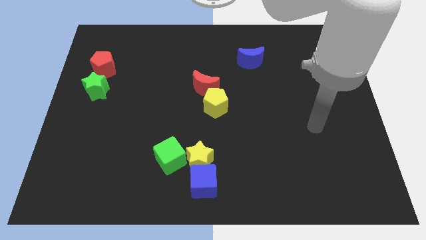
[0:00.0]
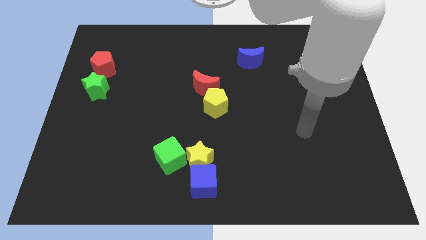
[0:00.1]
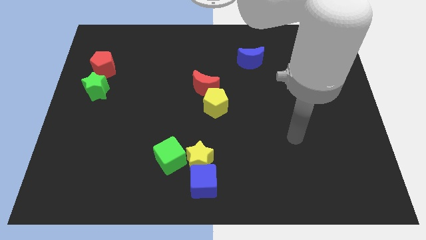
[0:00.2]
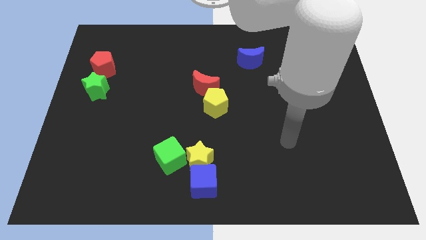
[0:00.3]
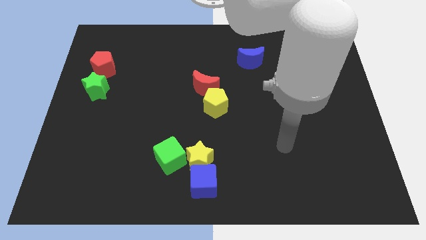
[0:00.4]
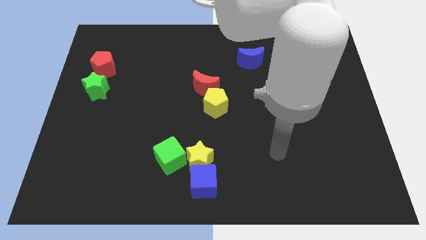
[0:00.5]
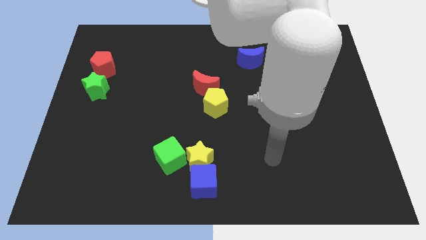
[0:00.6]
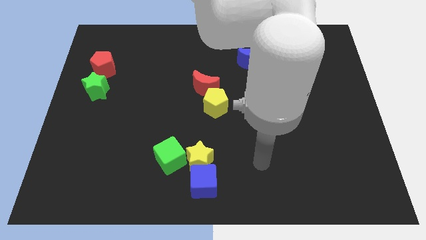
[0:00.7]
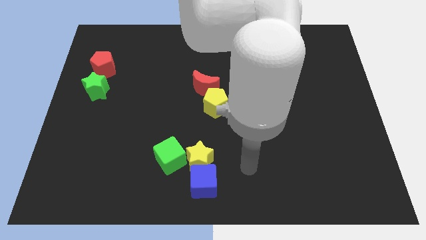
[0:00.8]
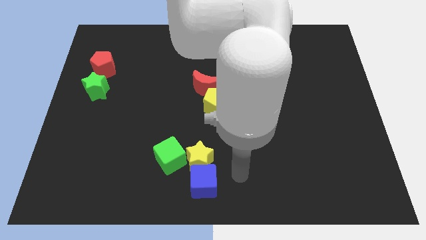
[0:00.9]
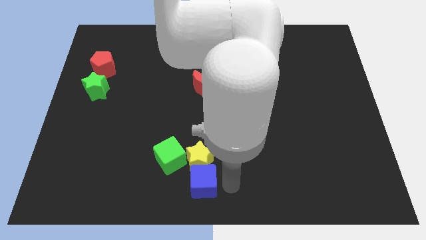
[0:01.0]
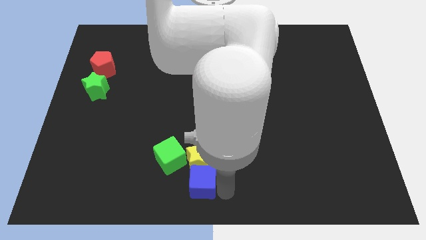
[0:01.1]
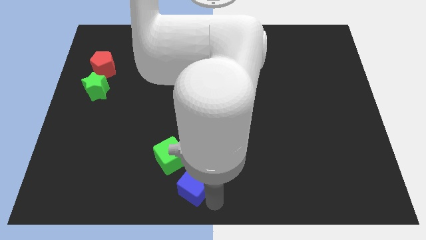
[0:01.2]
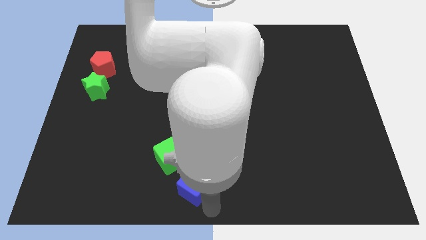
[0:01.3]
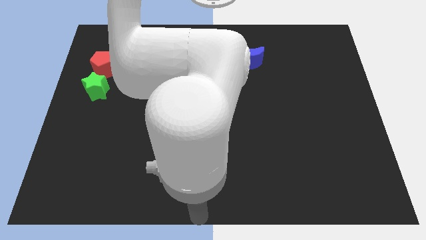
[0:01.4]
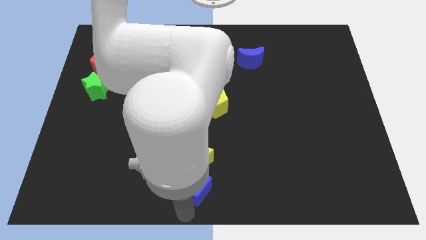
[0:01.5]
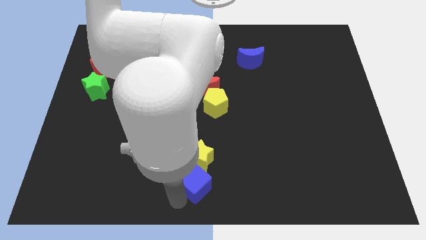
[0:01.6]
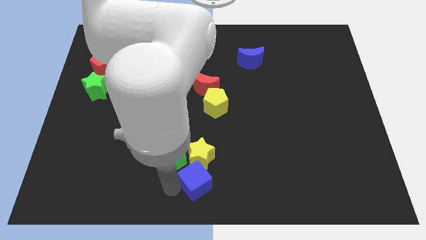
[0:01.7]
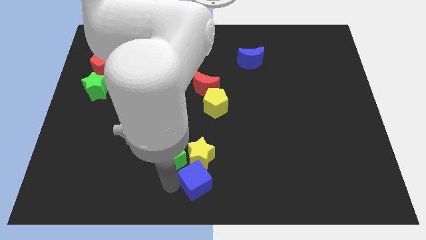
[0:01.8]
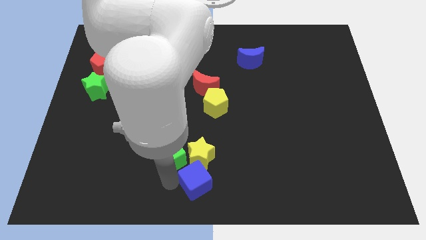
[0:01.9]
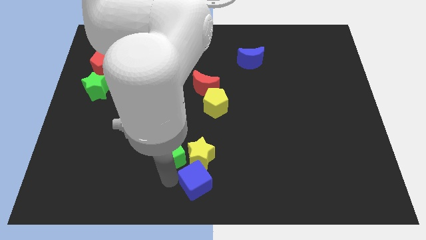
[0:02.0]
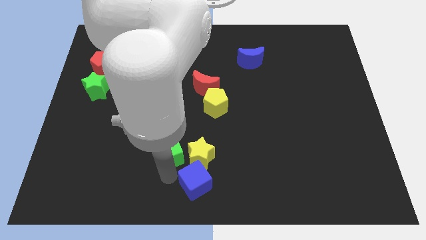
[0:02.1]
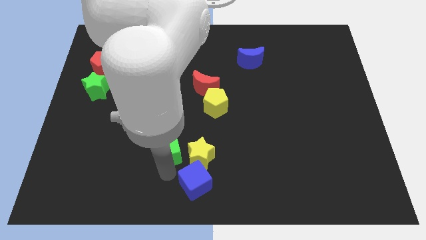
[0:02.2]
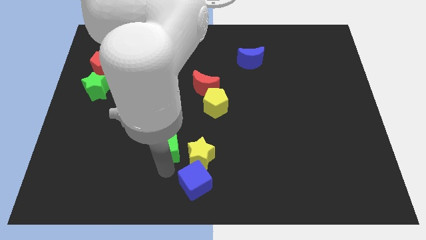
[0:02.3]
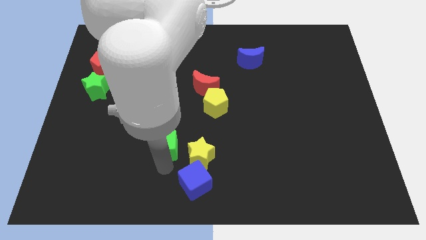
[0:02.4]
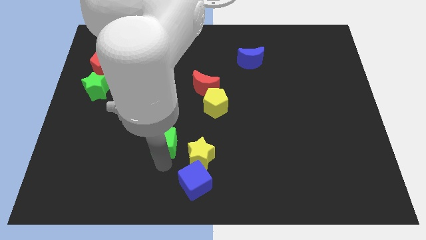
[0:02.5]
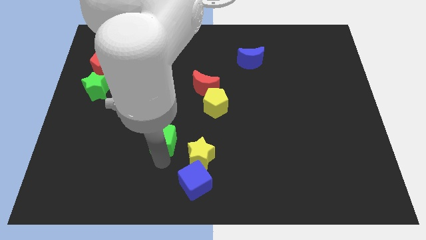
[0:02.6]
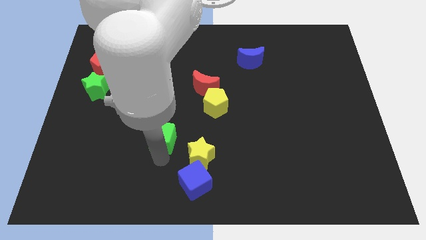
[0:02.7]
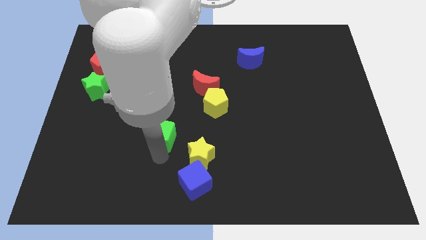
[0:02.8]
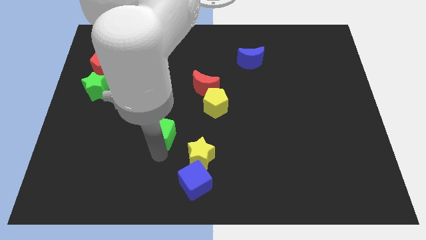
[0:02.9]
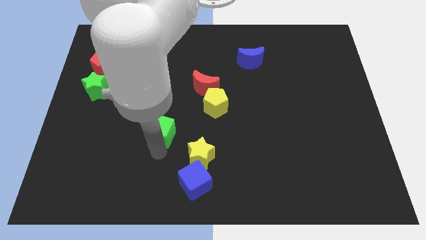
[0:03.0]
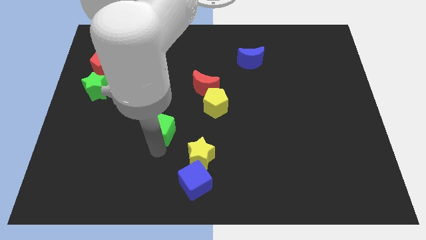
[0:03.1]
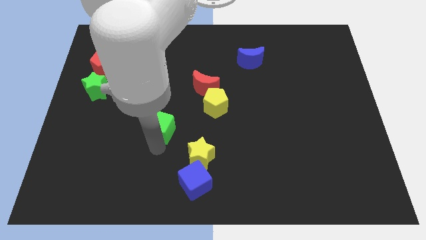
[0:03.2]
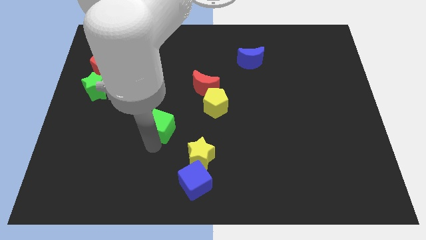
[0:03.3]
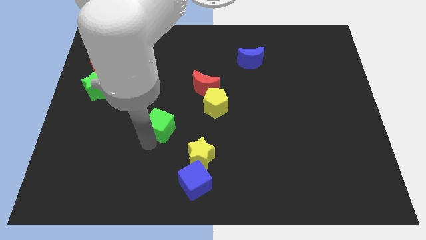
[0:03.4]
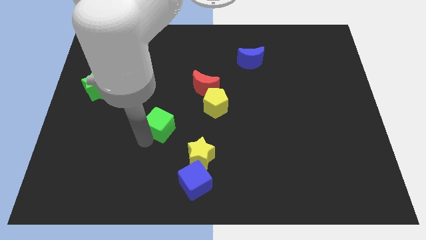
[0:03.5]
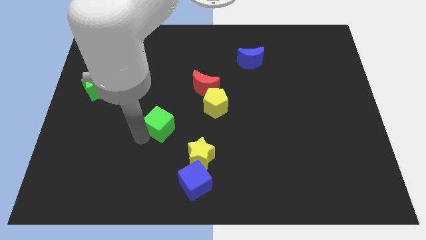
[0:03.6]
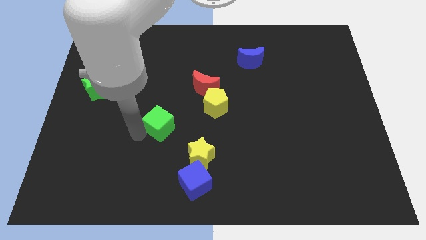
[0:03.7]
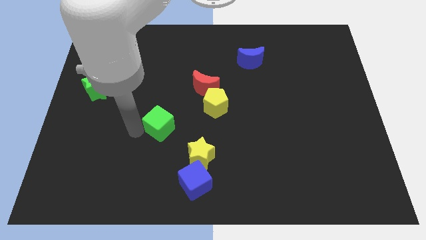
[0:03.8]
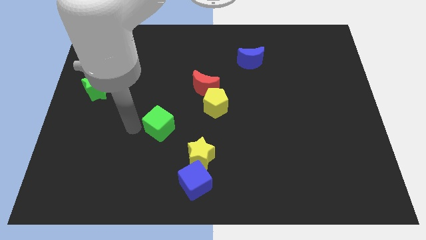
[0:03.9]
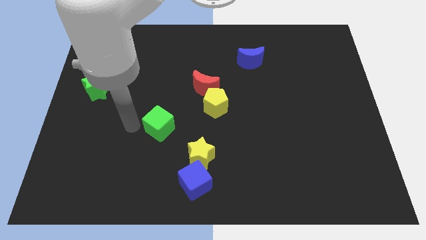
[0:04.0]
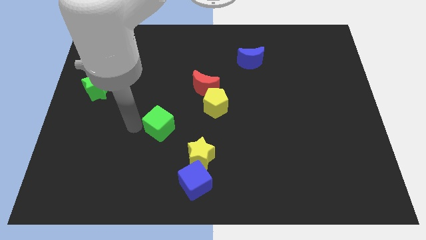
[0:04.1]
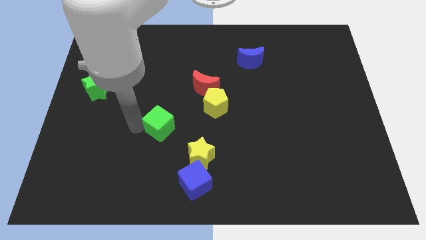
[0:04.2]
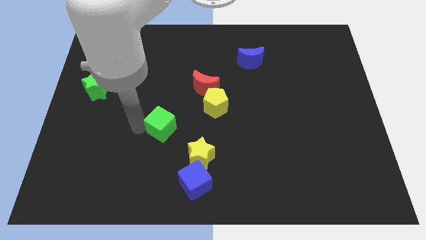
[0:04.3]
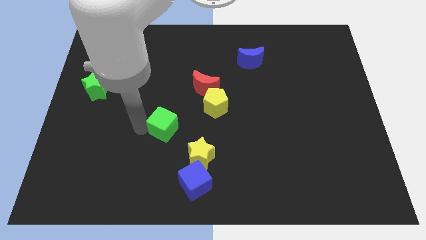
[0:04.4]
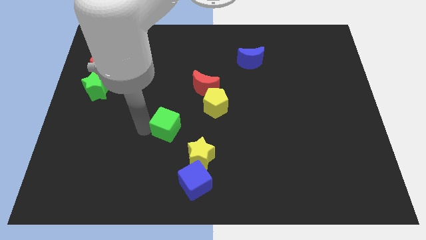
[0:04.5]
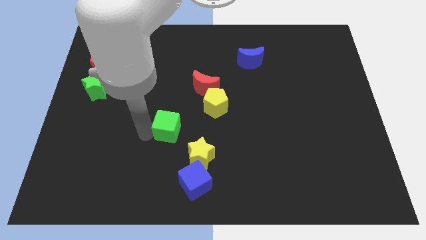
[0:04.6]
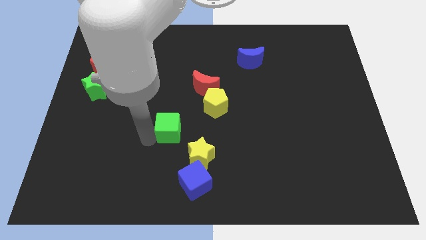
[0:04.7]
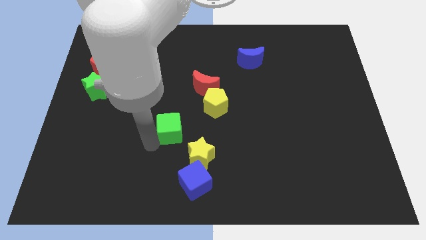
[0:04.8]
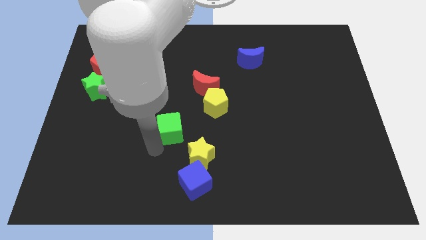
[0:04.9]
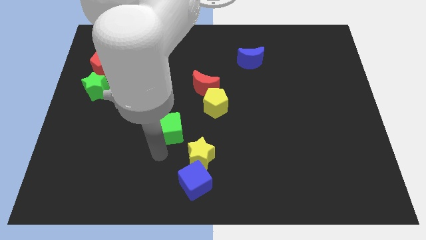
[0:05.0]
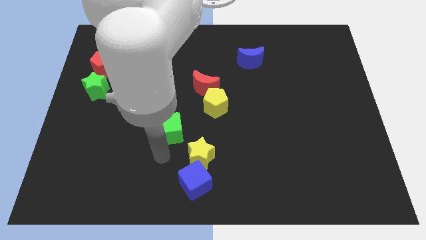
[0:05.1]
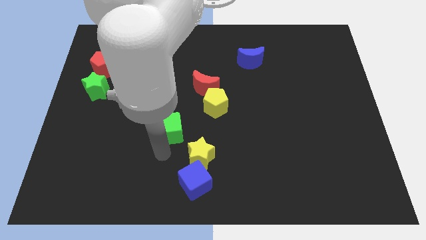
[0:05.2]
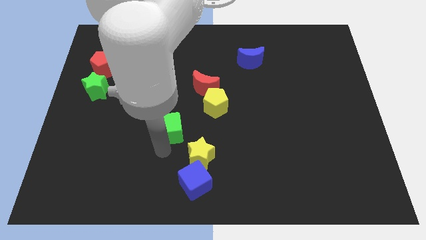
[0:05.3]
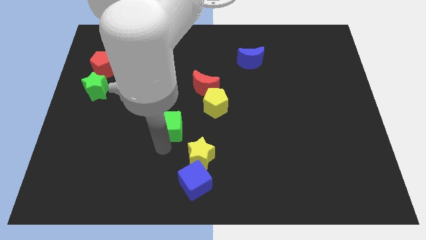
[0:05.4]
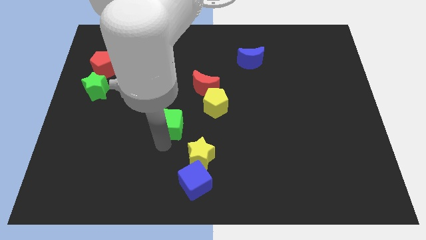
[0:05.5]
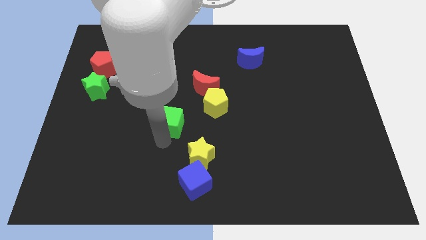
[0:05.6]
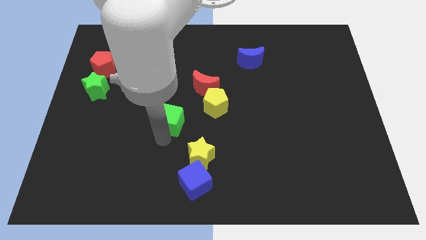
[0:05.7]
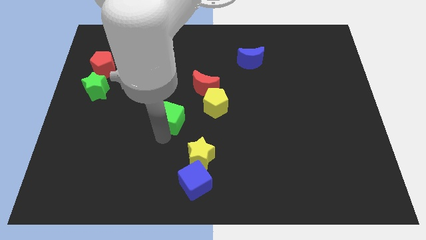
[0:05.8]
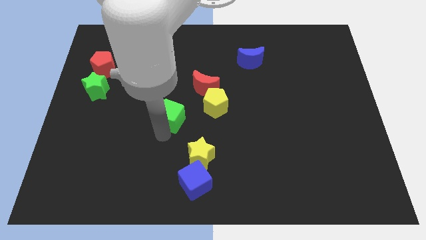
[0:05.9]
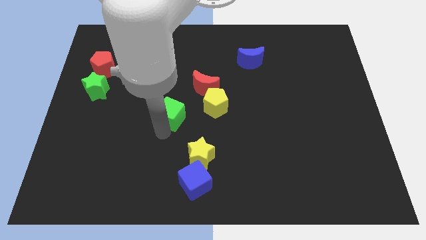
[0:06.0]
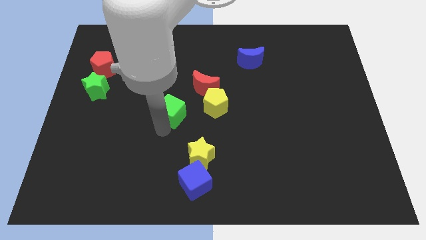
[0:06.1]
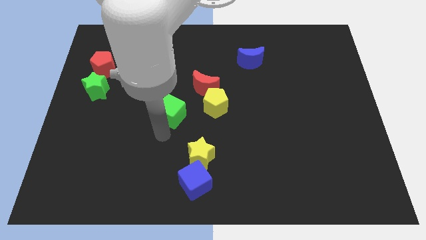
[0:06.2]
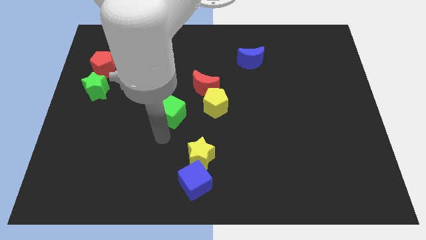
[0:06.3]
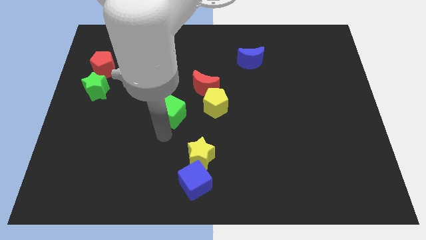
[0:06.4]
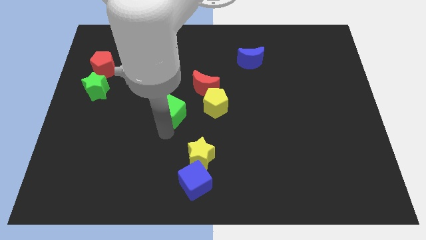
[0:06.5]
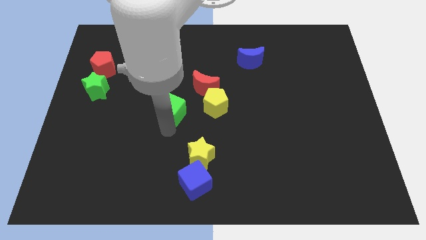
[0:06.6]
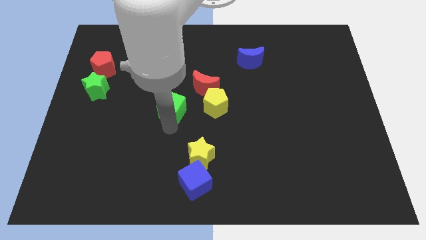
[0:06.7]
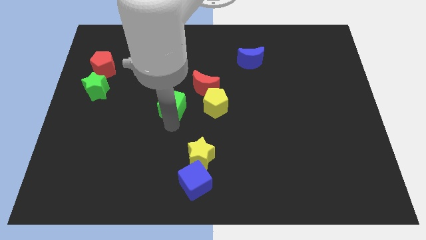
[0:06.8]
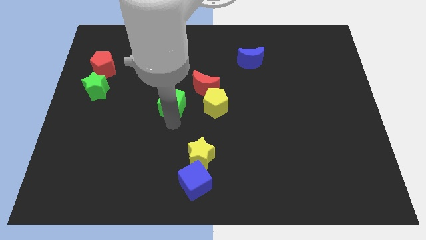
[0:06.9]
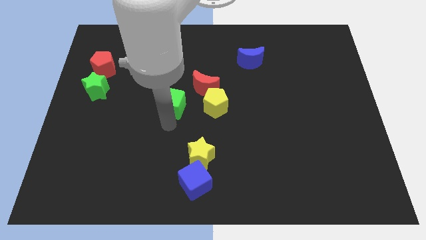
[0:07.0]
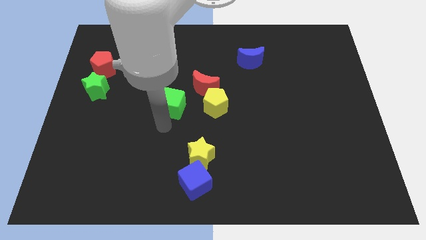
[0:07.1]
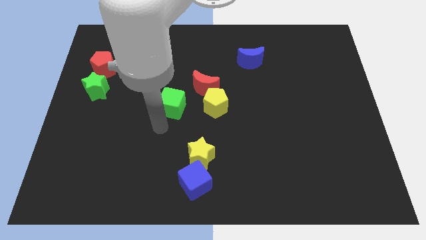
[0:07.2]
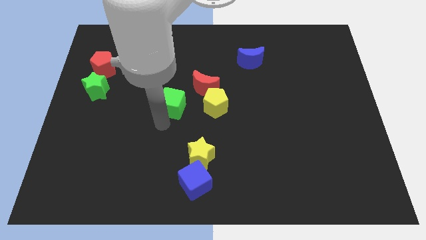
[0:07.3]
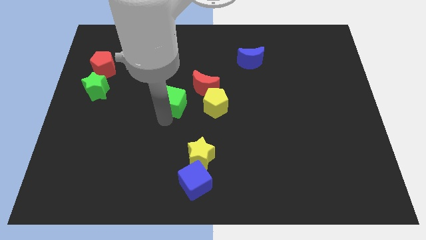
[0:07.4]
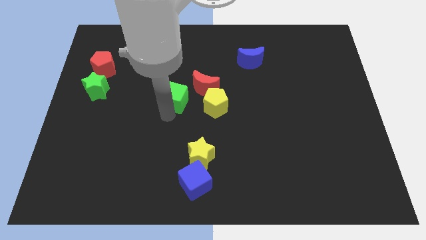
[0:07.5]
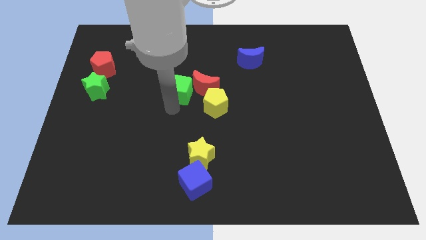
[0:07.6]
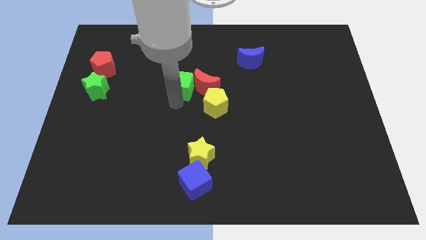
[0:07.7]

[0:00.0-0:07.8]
slide the green cube diagonally up and to the left of the red moon
